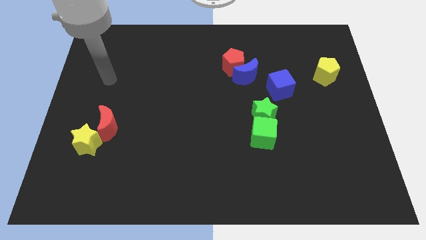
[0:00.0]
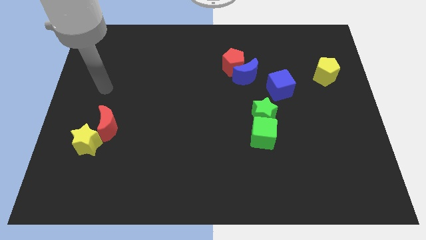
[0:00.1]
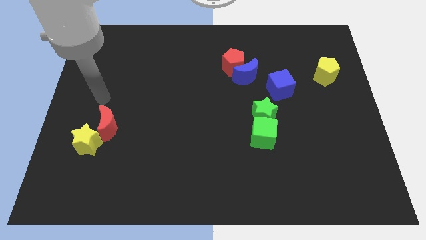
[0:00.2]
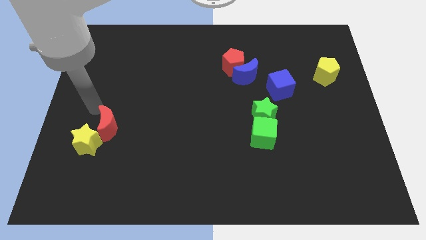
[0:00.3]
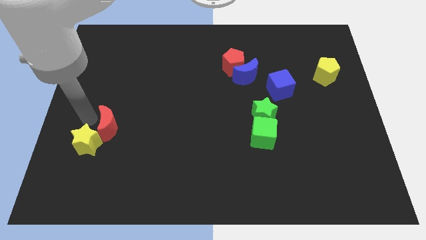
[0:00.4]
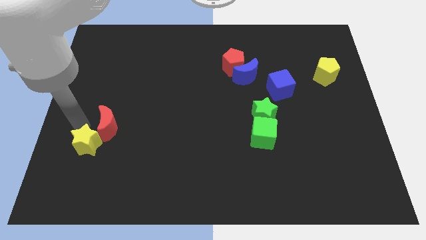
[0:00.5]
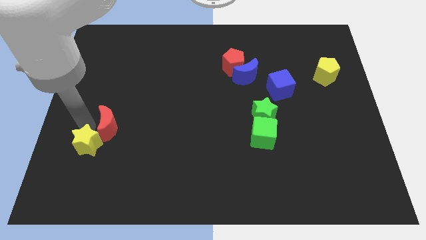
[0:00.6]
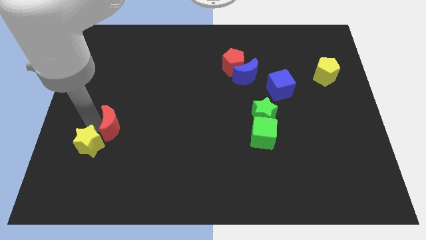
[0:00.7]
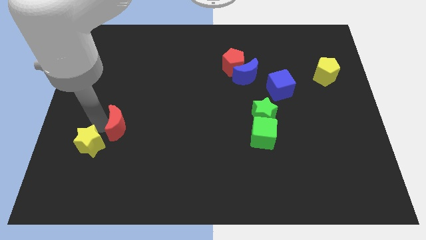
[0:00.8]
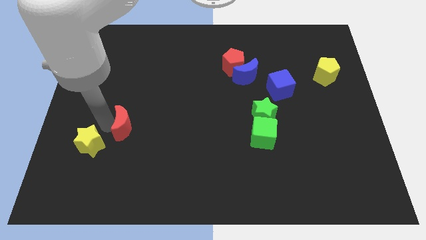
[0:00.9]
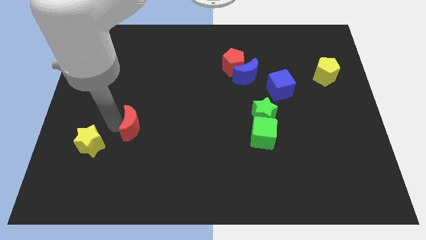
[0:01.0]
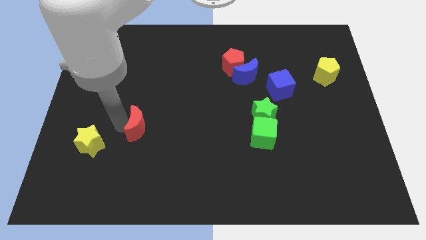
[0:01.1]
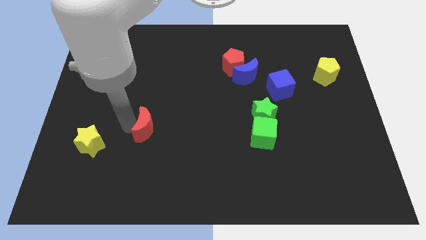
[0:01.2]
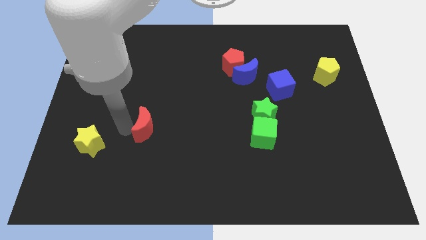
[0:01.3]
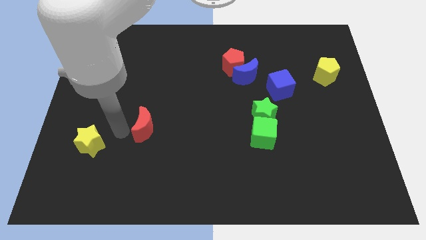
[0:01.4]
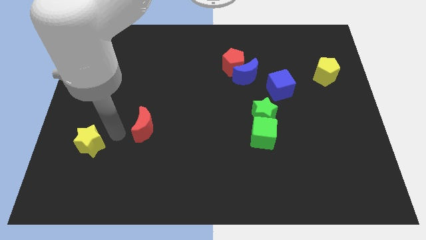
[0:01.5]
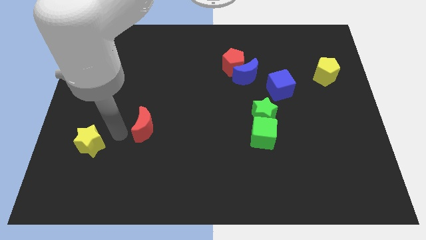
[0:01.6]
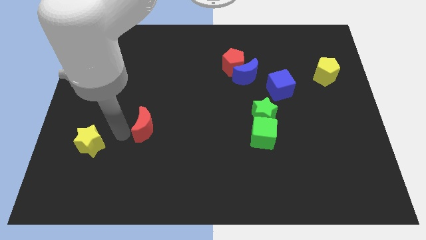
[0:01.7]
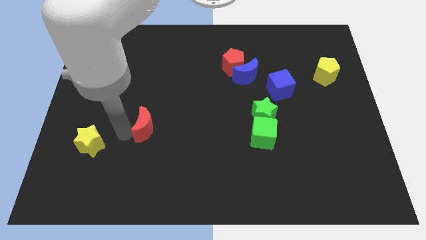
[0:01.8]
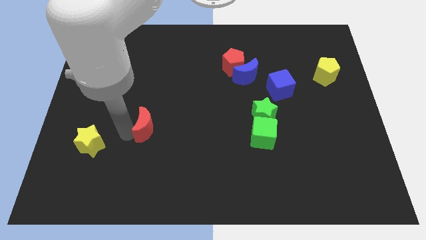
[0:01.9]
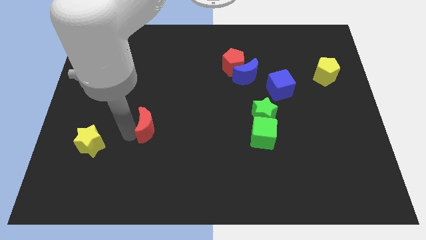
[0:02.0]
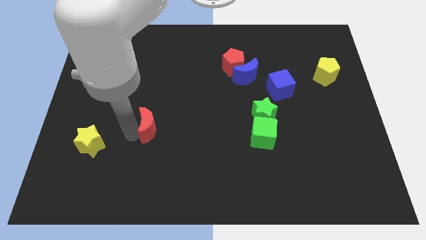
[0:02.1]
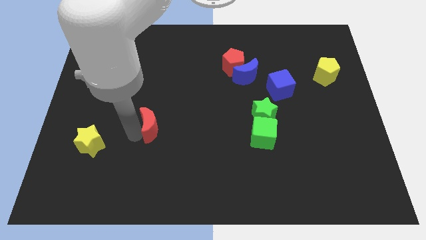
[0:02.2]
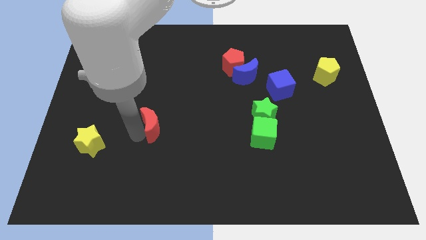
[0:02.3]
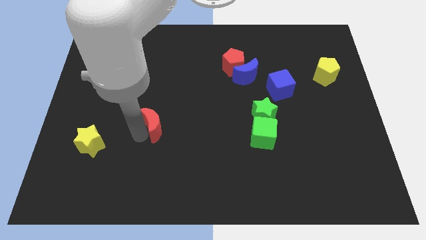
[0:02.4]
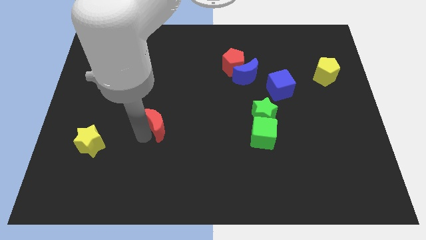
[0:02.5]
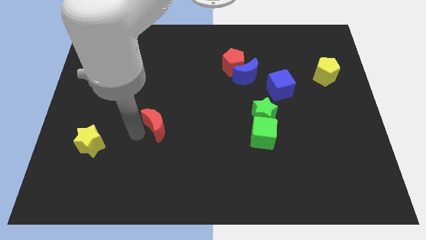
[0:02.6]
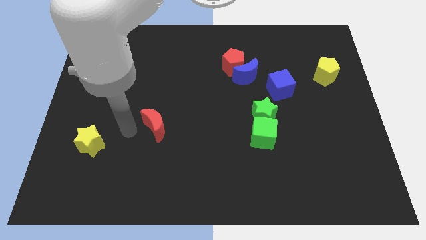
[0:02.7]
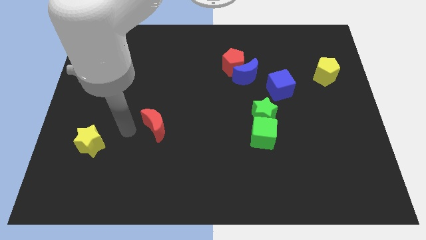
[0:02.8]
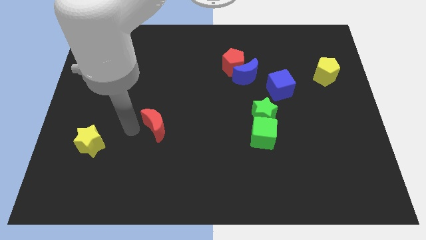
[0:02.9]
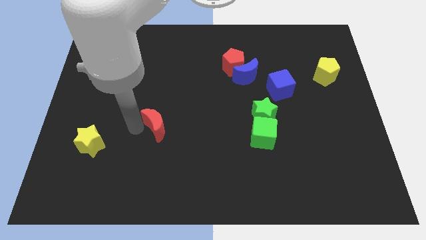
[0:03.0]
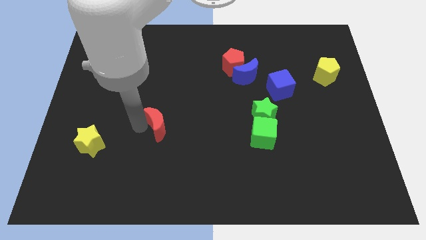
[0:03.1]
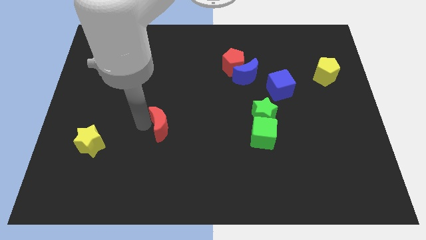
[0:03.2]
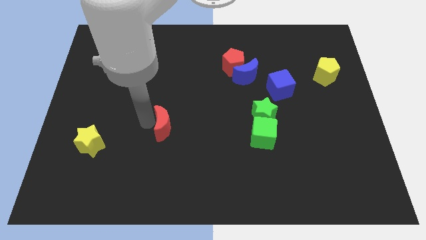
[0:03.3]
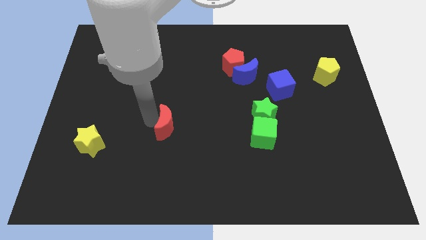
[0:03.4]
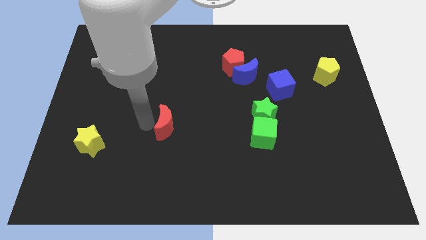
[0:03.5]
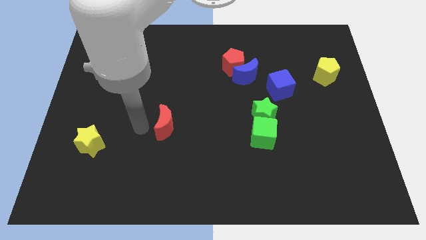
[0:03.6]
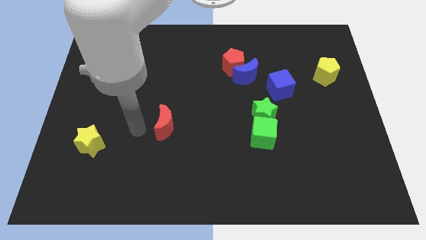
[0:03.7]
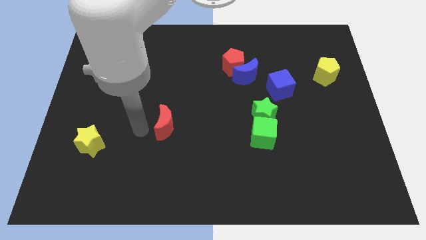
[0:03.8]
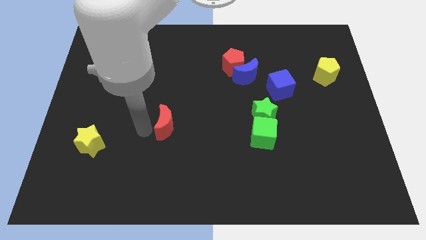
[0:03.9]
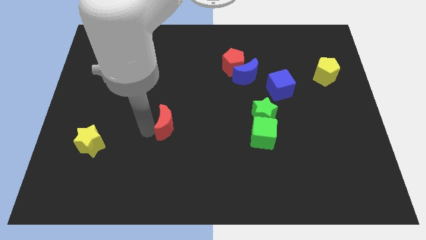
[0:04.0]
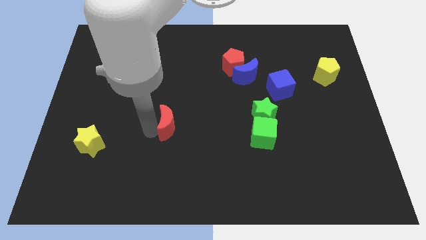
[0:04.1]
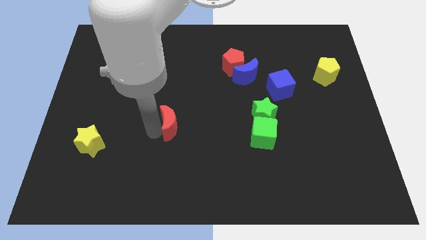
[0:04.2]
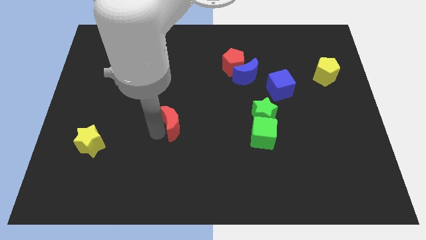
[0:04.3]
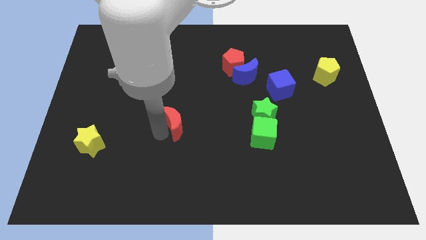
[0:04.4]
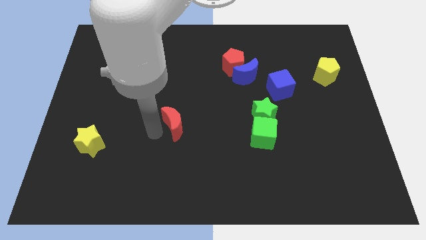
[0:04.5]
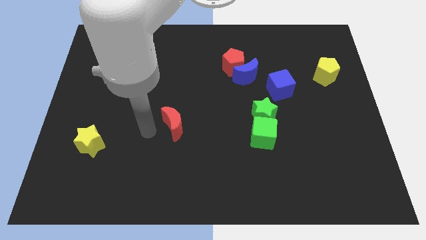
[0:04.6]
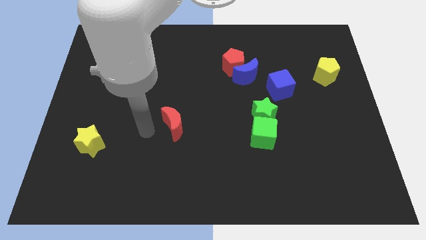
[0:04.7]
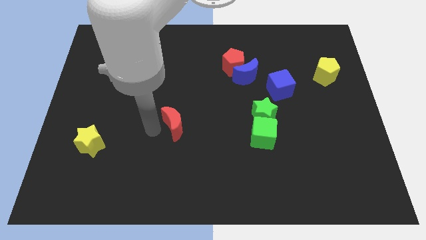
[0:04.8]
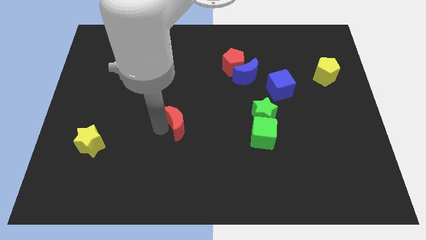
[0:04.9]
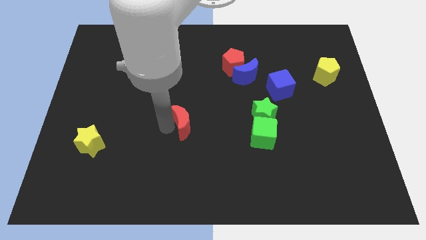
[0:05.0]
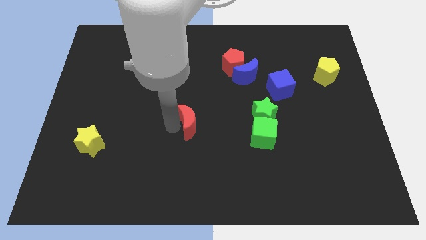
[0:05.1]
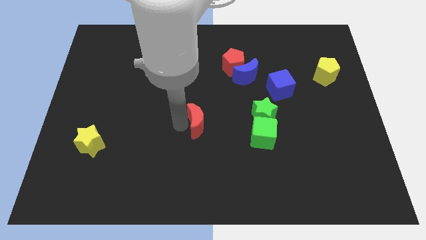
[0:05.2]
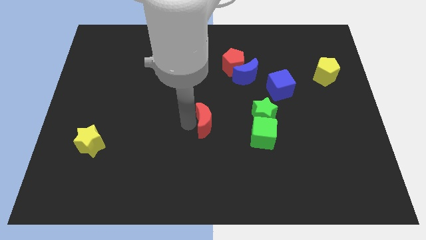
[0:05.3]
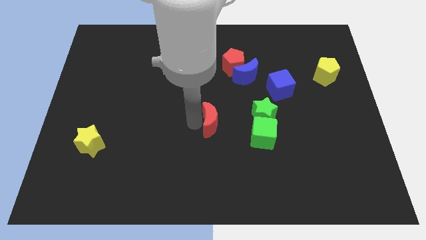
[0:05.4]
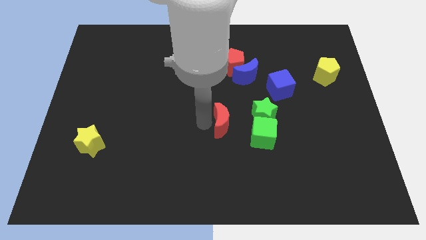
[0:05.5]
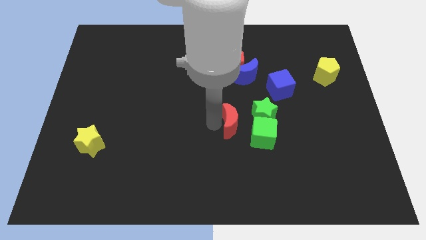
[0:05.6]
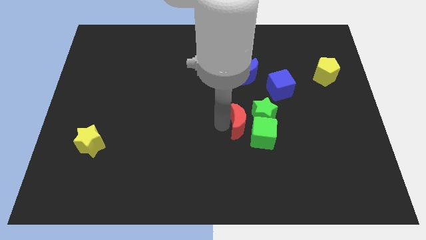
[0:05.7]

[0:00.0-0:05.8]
move the red moon to the green star

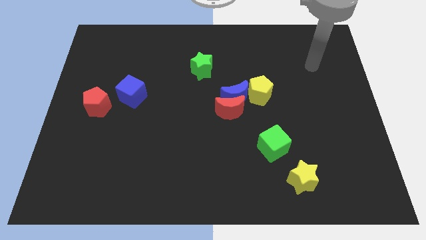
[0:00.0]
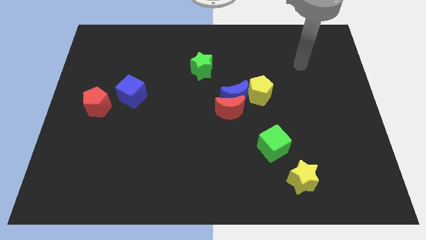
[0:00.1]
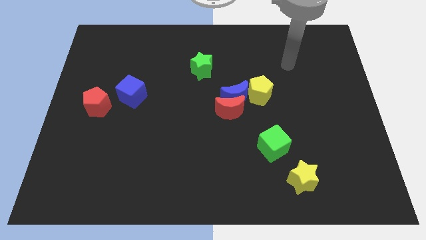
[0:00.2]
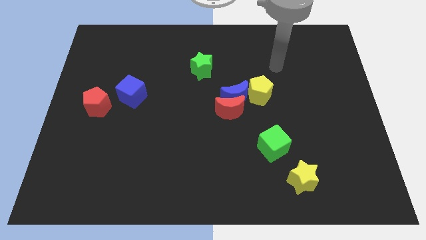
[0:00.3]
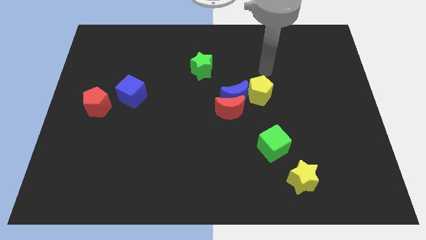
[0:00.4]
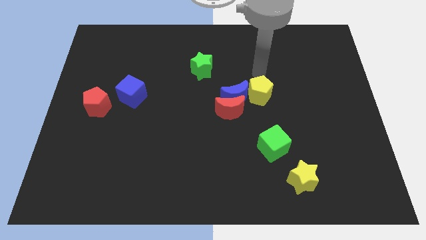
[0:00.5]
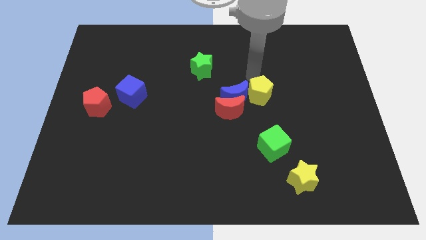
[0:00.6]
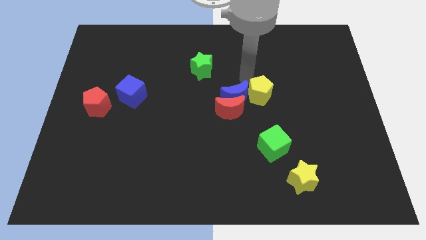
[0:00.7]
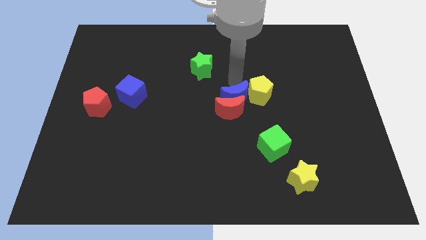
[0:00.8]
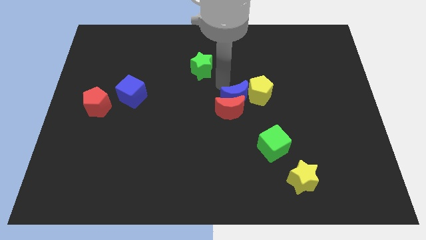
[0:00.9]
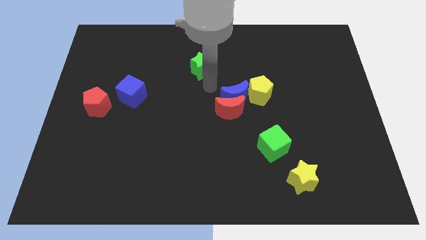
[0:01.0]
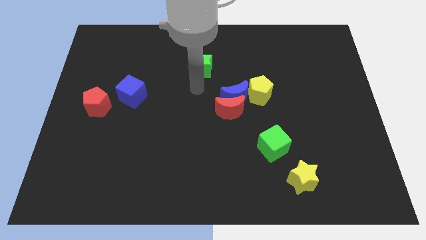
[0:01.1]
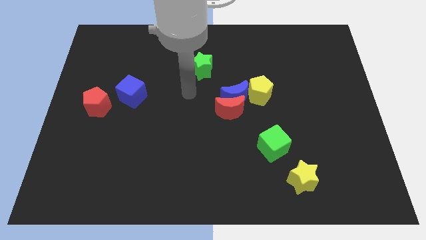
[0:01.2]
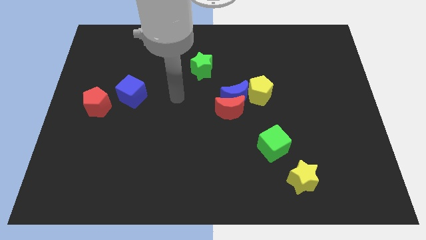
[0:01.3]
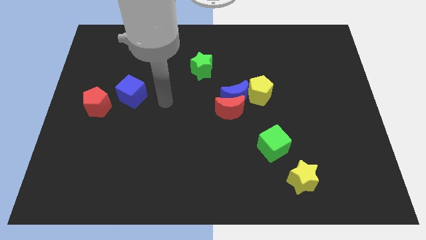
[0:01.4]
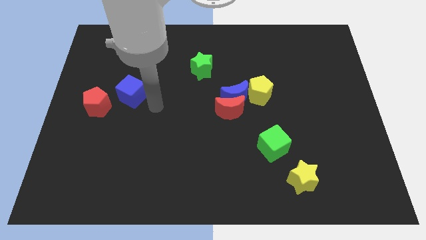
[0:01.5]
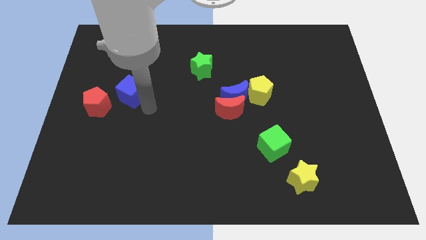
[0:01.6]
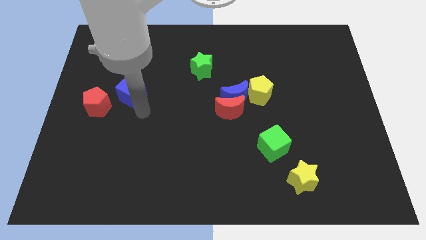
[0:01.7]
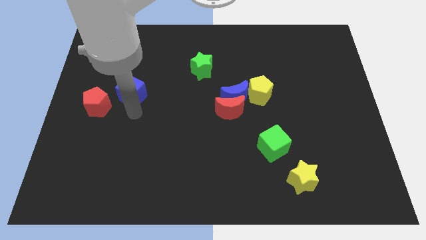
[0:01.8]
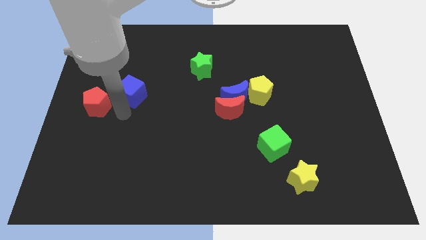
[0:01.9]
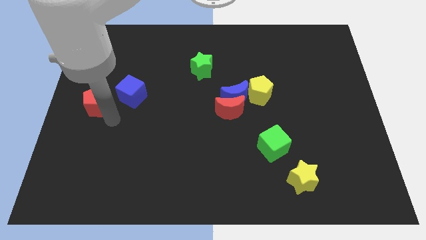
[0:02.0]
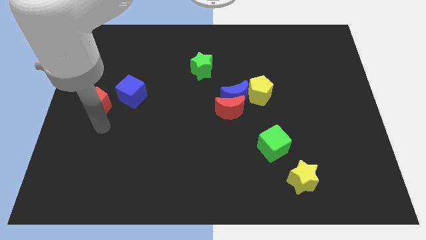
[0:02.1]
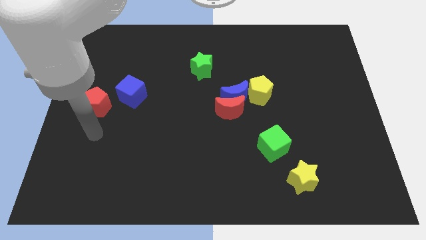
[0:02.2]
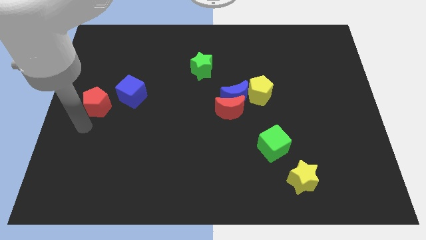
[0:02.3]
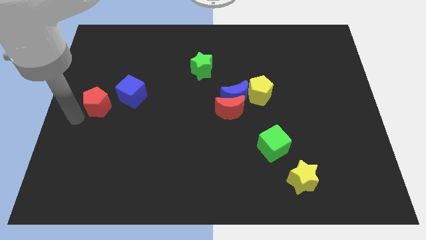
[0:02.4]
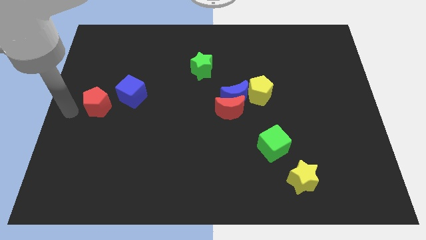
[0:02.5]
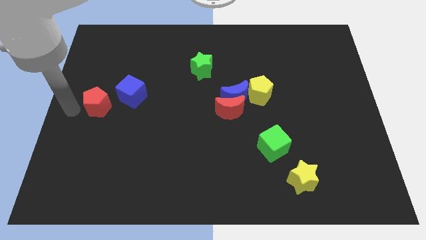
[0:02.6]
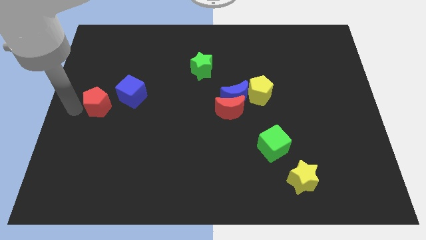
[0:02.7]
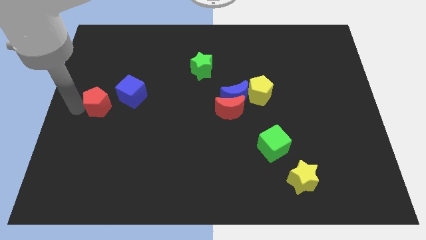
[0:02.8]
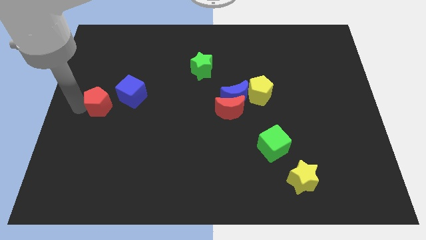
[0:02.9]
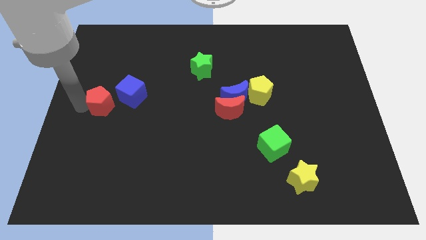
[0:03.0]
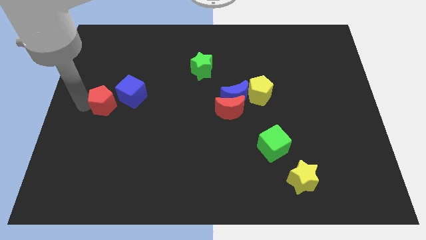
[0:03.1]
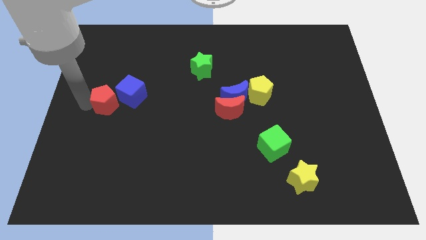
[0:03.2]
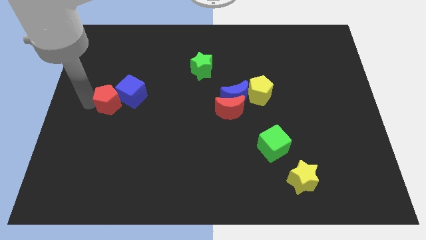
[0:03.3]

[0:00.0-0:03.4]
slide the red pentagon next to the blue cube
